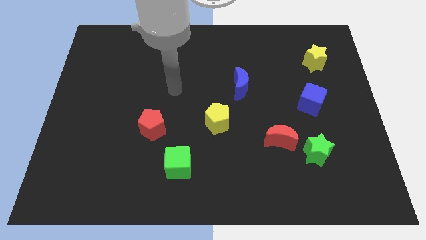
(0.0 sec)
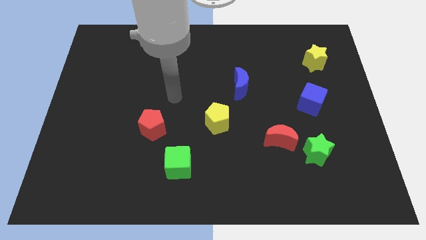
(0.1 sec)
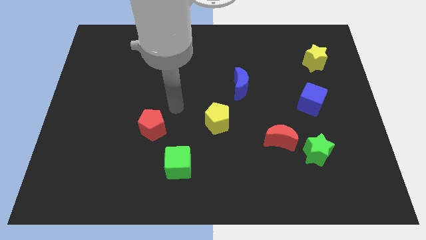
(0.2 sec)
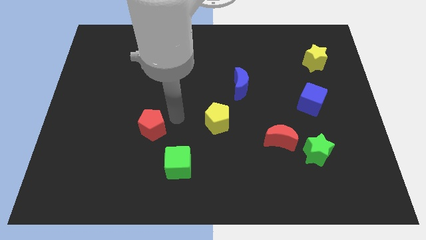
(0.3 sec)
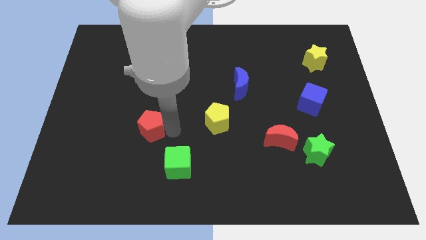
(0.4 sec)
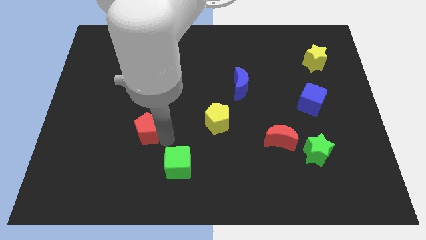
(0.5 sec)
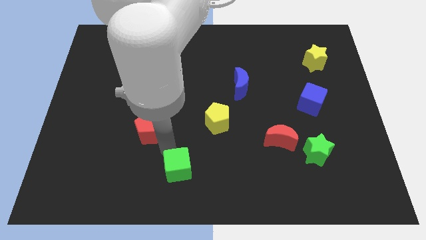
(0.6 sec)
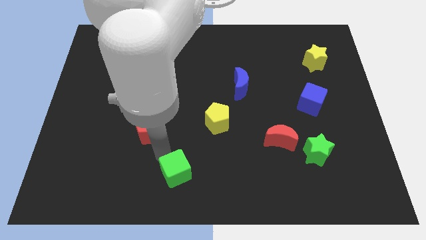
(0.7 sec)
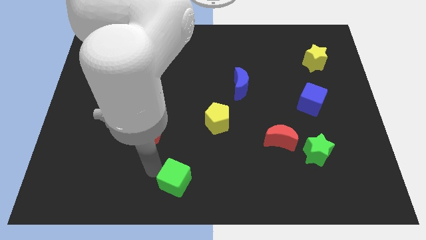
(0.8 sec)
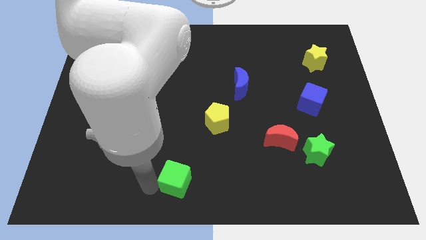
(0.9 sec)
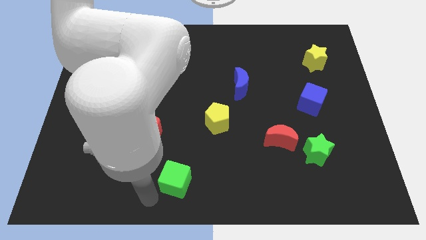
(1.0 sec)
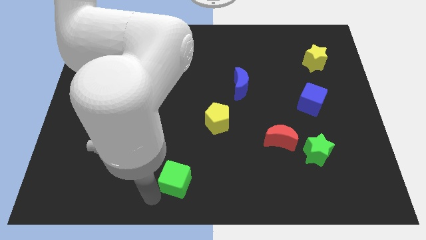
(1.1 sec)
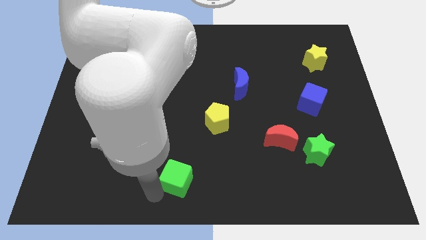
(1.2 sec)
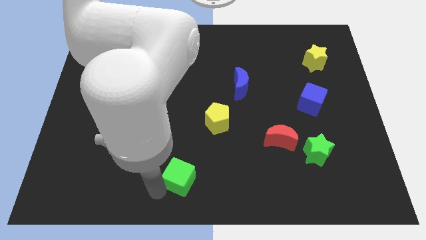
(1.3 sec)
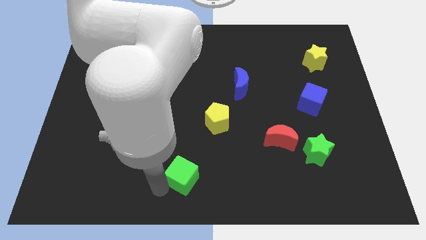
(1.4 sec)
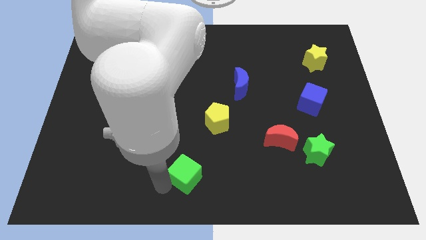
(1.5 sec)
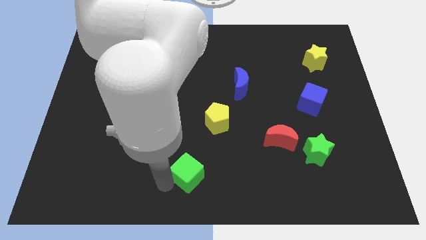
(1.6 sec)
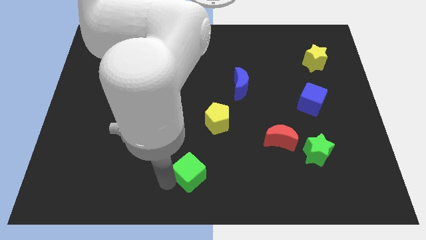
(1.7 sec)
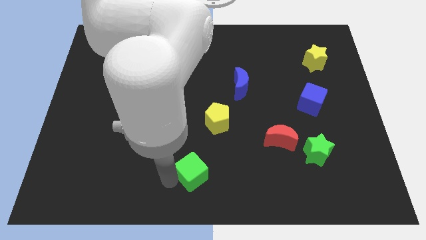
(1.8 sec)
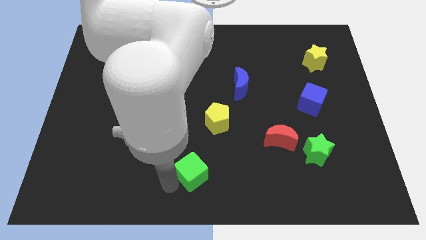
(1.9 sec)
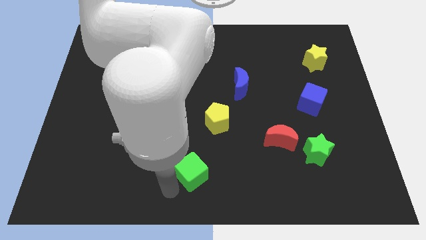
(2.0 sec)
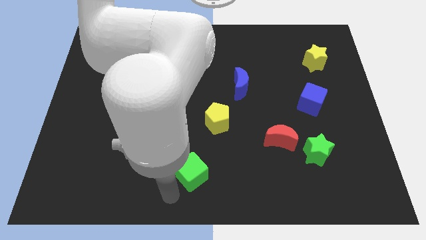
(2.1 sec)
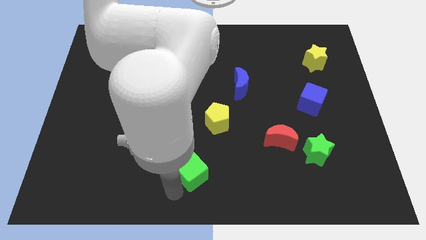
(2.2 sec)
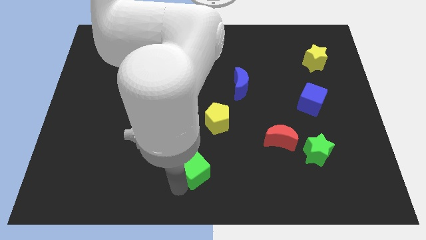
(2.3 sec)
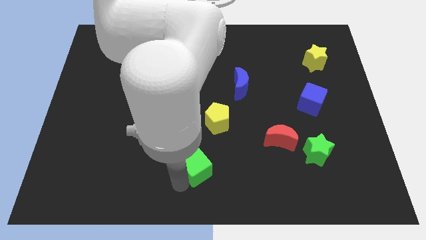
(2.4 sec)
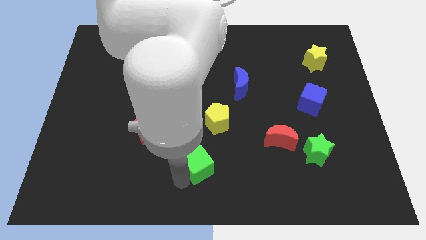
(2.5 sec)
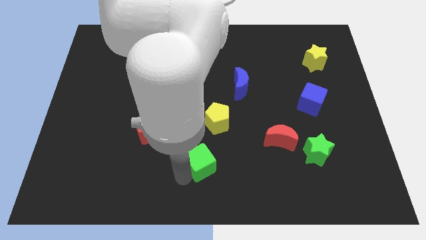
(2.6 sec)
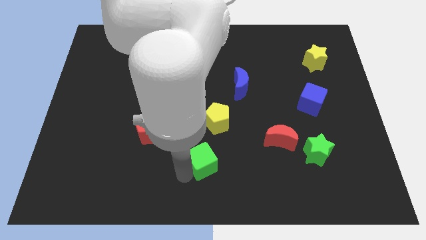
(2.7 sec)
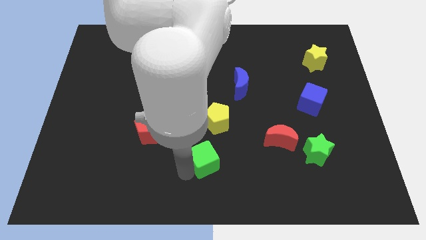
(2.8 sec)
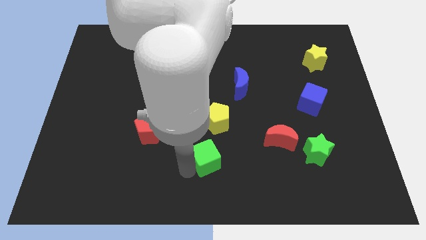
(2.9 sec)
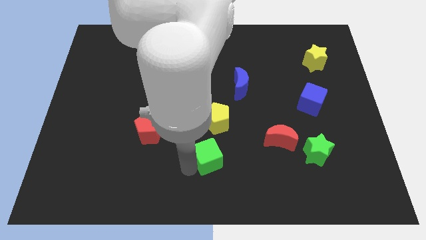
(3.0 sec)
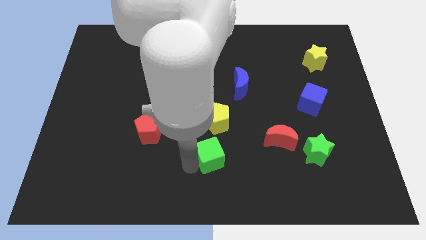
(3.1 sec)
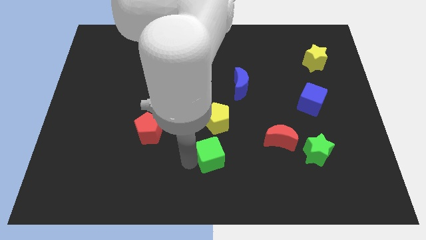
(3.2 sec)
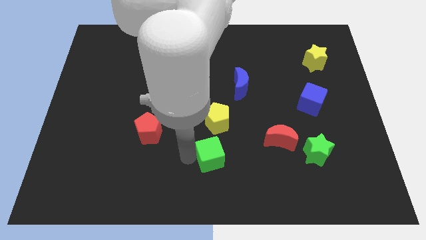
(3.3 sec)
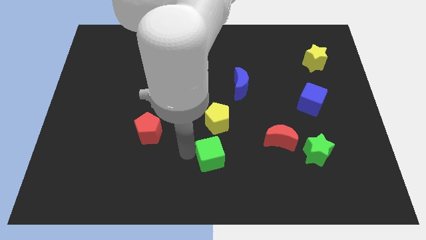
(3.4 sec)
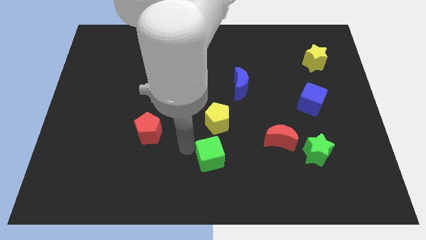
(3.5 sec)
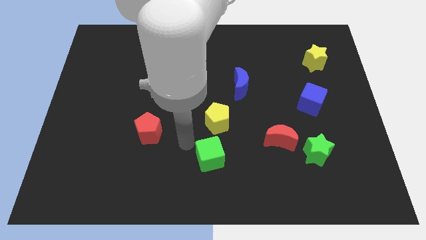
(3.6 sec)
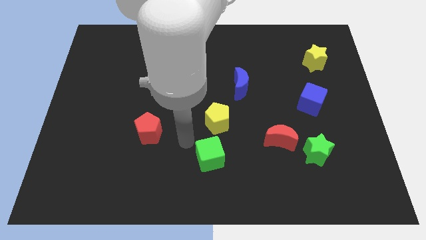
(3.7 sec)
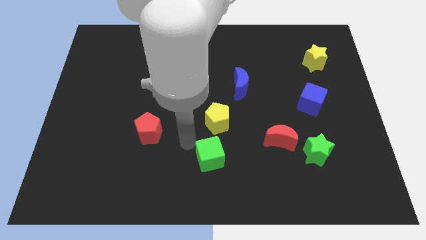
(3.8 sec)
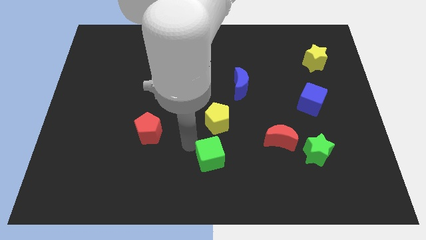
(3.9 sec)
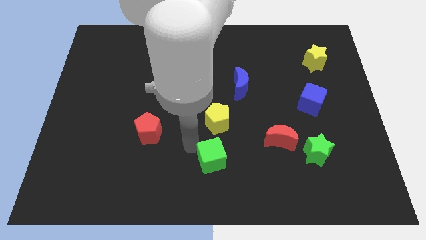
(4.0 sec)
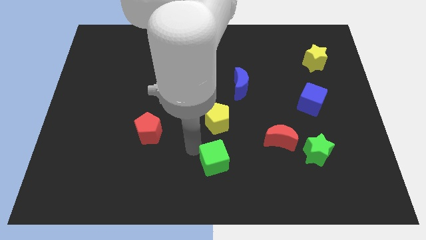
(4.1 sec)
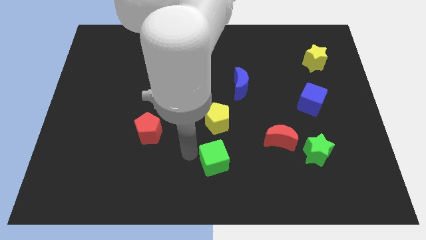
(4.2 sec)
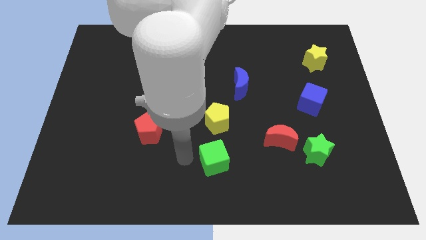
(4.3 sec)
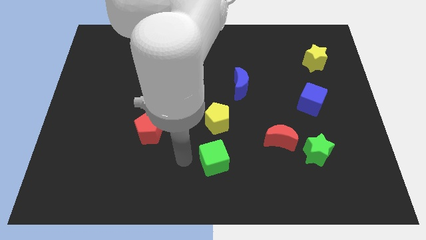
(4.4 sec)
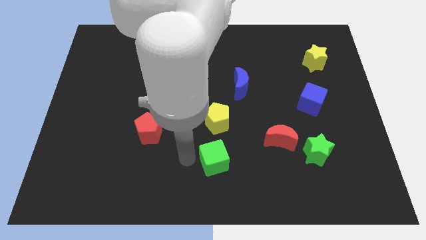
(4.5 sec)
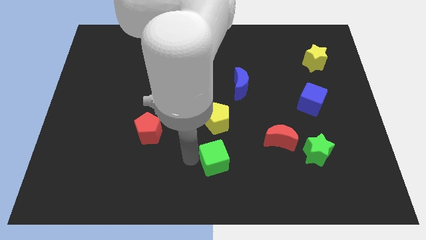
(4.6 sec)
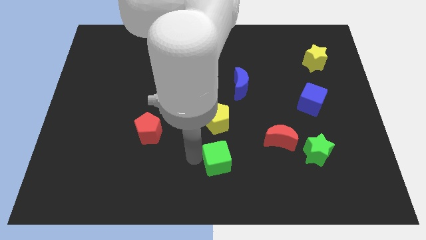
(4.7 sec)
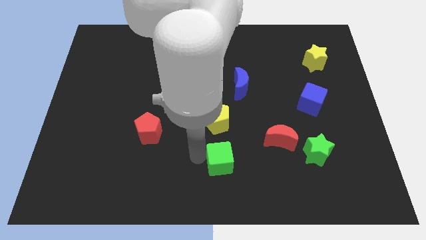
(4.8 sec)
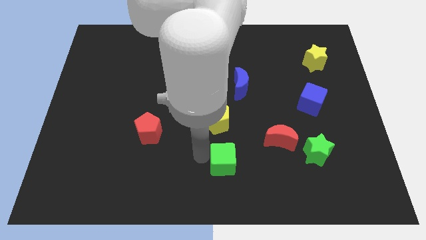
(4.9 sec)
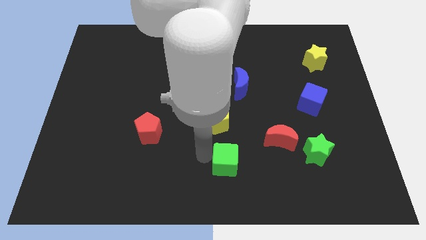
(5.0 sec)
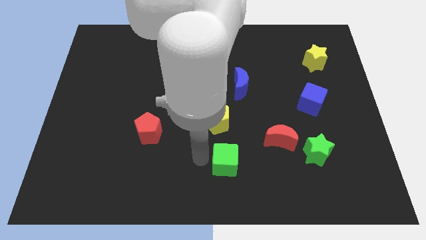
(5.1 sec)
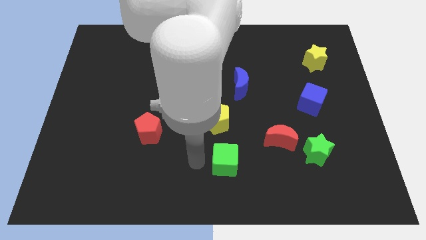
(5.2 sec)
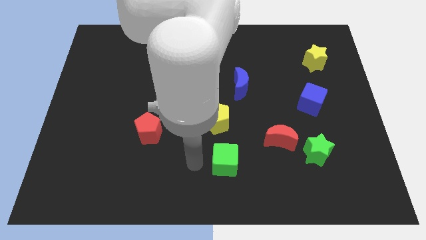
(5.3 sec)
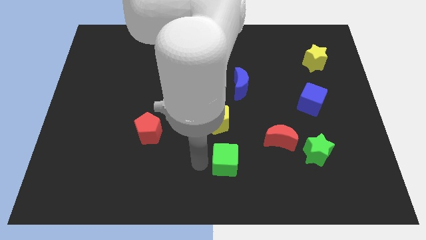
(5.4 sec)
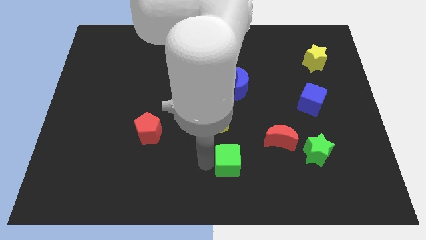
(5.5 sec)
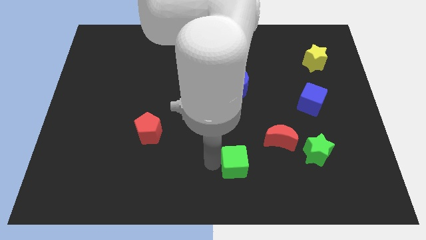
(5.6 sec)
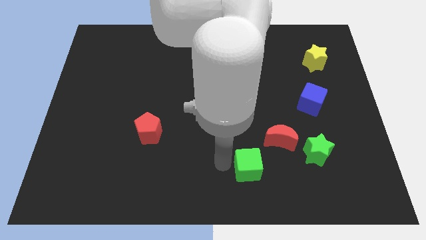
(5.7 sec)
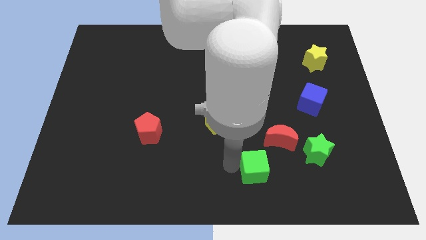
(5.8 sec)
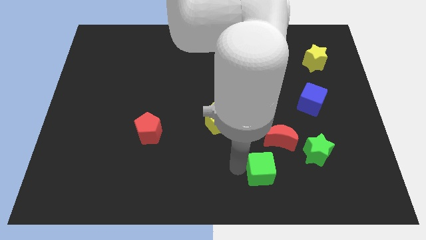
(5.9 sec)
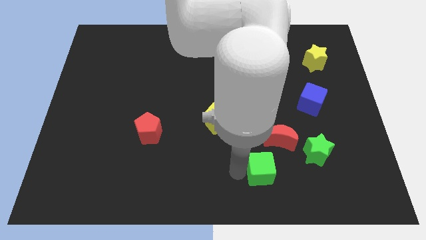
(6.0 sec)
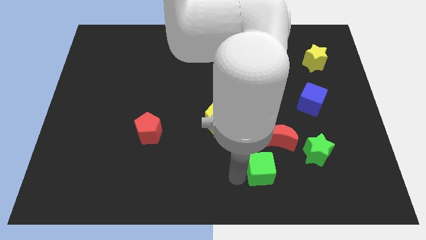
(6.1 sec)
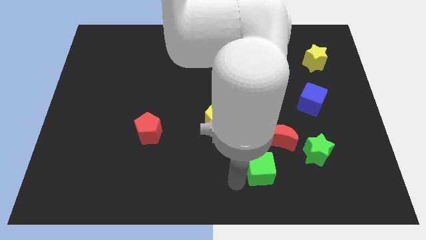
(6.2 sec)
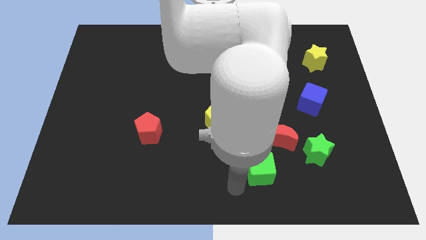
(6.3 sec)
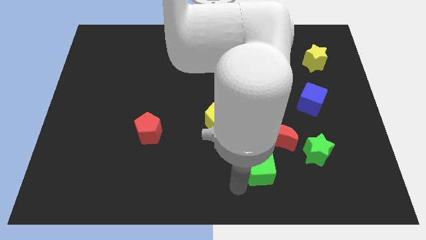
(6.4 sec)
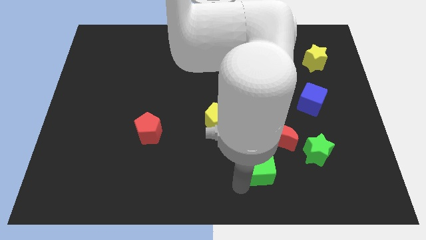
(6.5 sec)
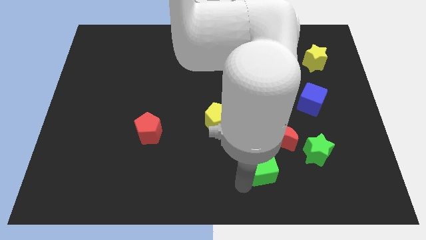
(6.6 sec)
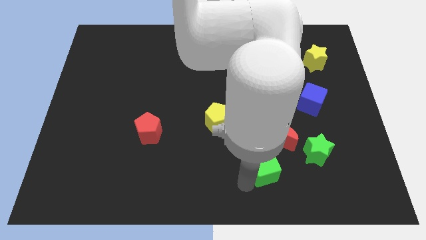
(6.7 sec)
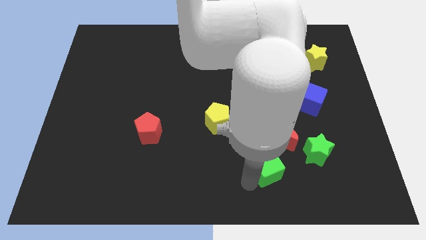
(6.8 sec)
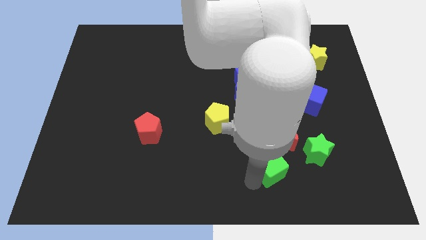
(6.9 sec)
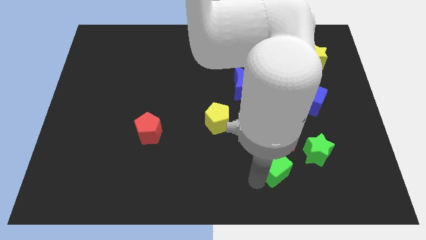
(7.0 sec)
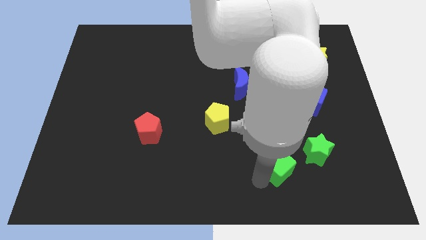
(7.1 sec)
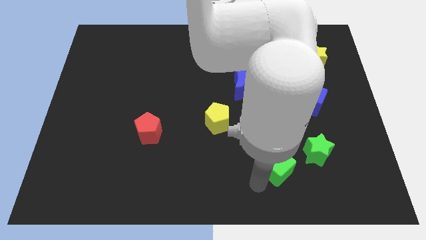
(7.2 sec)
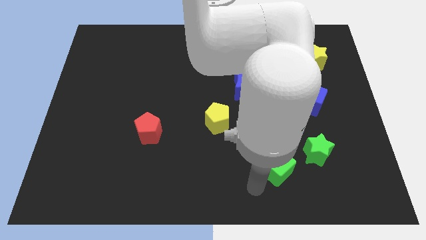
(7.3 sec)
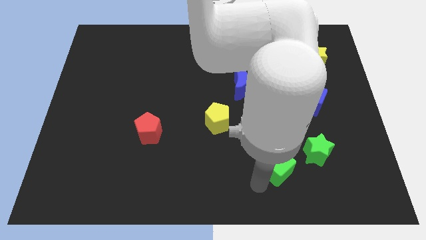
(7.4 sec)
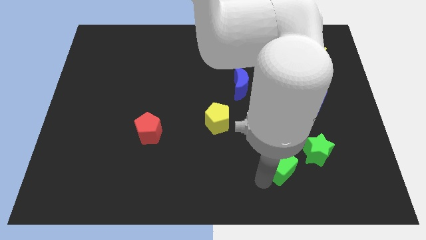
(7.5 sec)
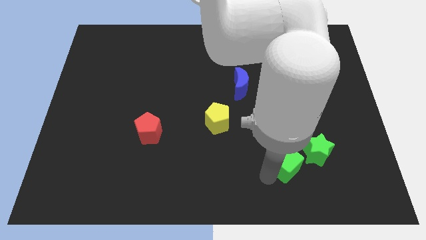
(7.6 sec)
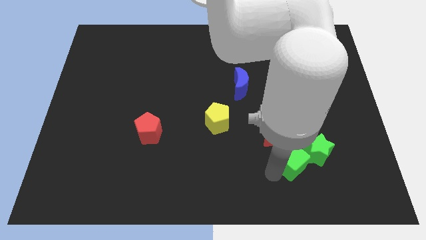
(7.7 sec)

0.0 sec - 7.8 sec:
slide the green cube towards the green star
